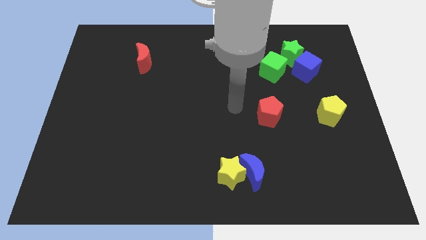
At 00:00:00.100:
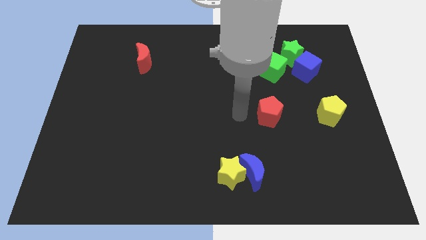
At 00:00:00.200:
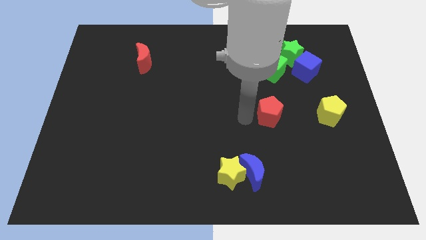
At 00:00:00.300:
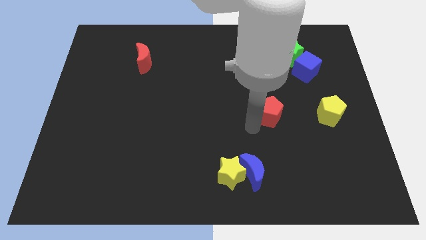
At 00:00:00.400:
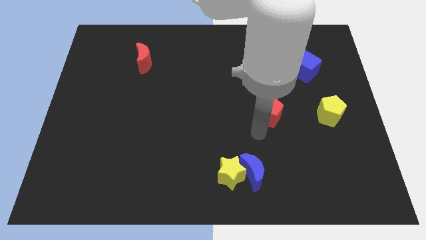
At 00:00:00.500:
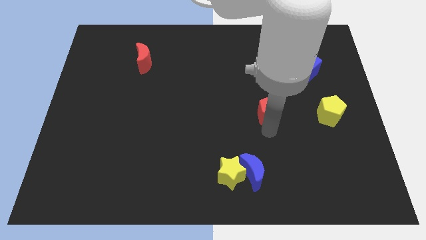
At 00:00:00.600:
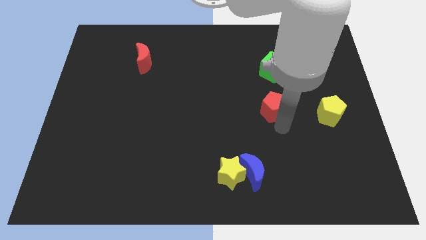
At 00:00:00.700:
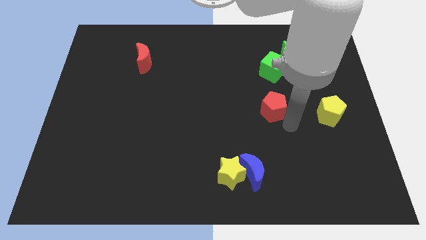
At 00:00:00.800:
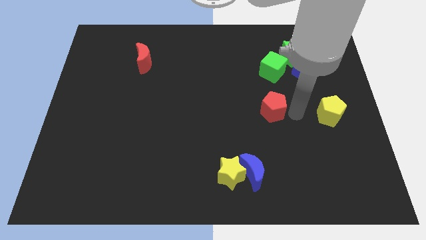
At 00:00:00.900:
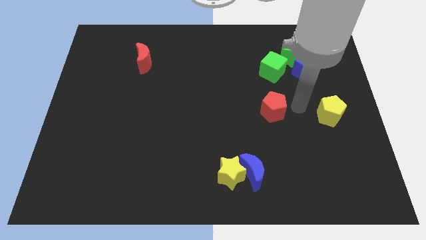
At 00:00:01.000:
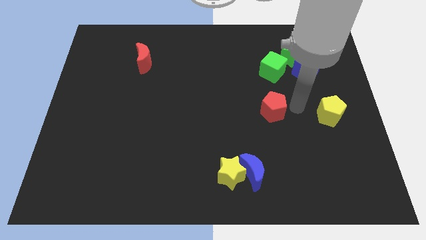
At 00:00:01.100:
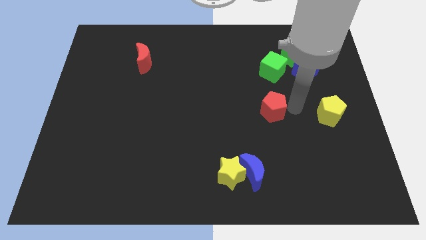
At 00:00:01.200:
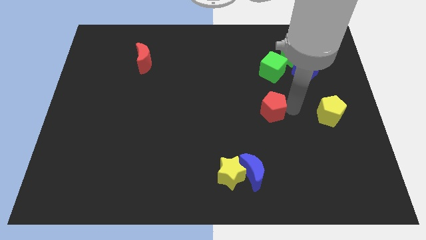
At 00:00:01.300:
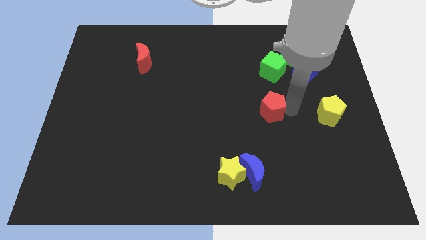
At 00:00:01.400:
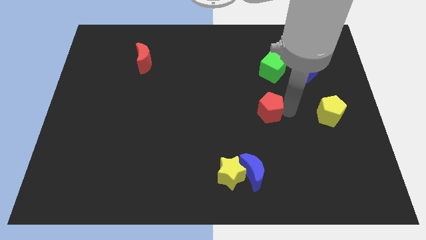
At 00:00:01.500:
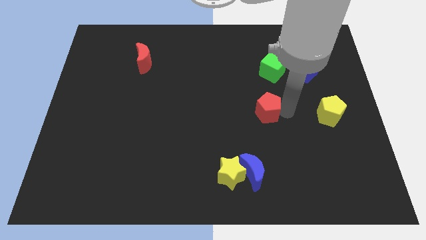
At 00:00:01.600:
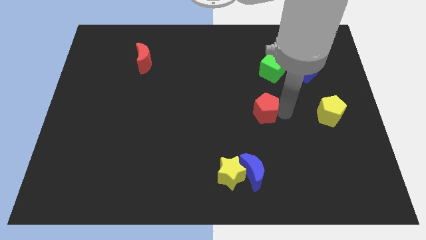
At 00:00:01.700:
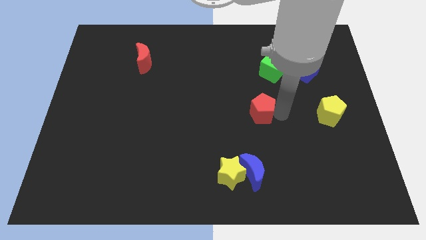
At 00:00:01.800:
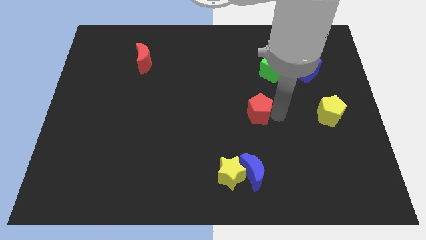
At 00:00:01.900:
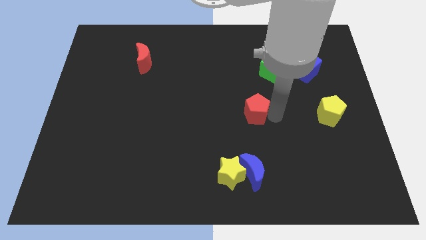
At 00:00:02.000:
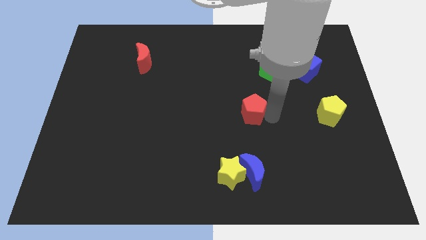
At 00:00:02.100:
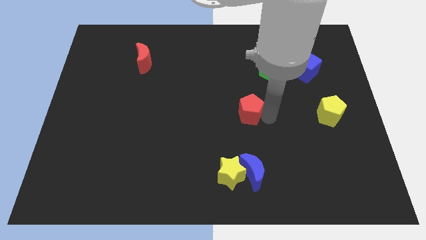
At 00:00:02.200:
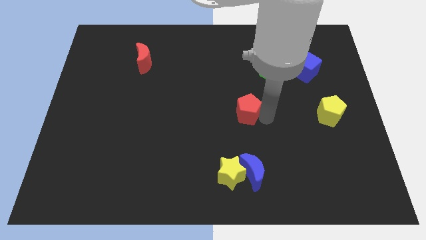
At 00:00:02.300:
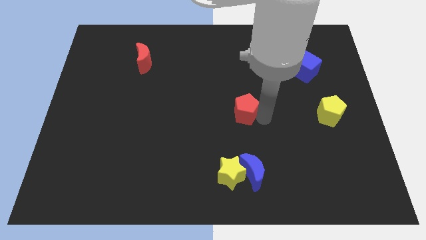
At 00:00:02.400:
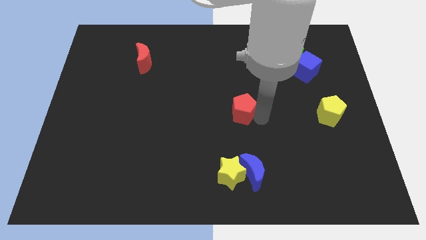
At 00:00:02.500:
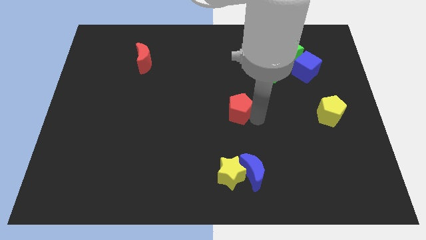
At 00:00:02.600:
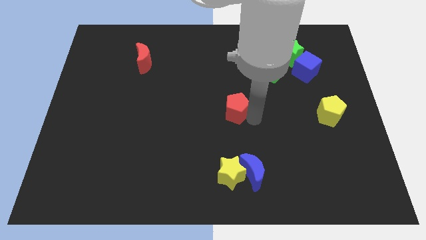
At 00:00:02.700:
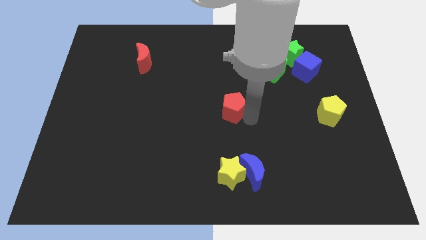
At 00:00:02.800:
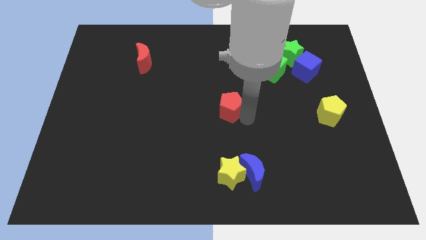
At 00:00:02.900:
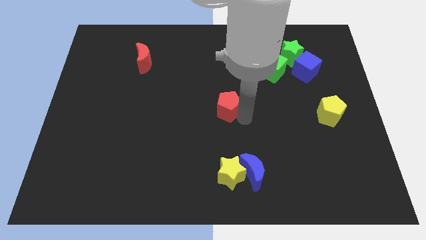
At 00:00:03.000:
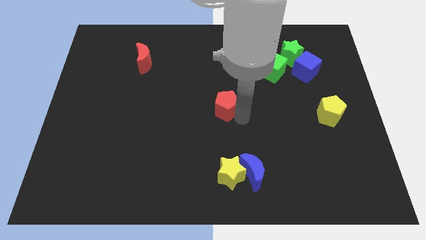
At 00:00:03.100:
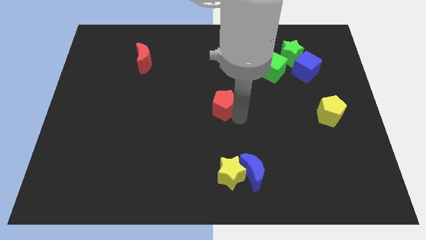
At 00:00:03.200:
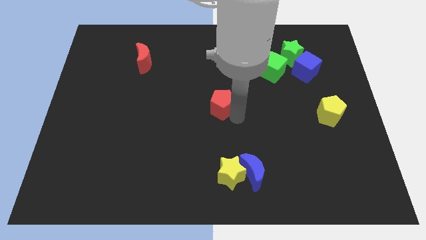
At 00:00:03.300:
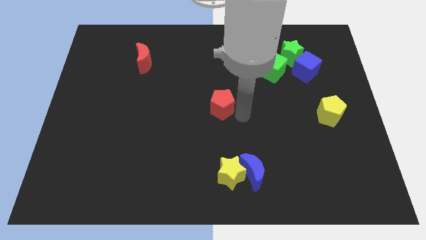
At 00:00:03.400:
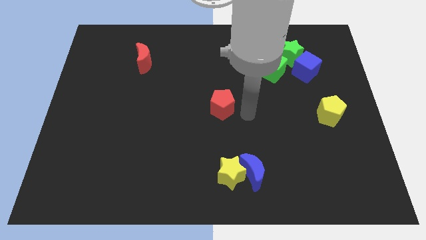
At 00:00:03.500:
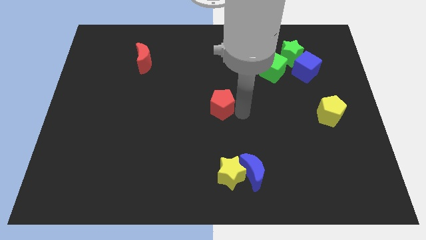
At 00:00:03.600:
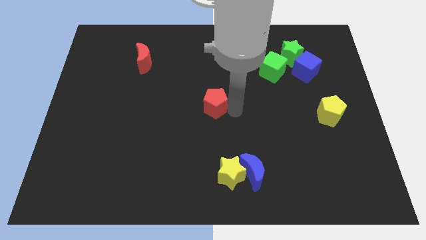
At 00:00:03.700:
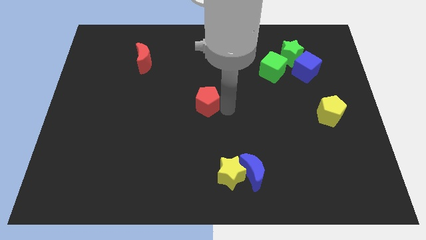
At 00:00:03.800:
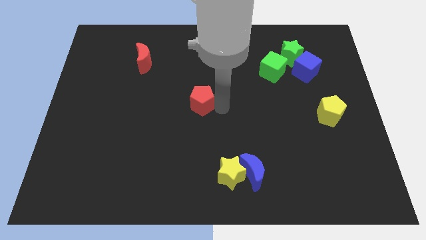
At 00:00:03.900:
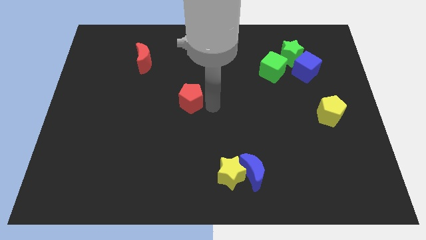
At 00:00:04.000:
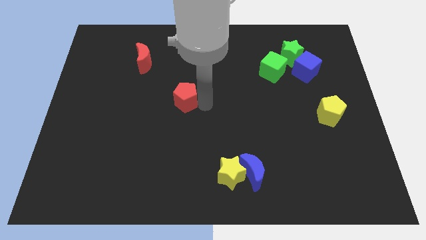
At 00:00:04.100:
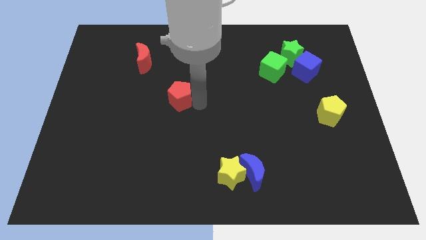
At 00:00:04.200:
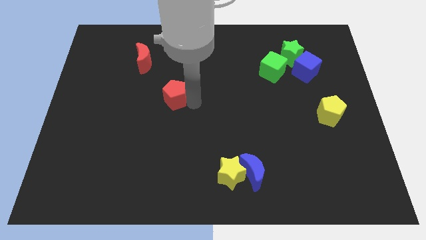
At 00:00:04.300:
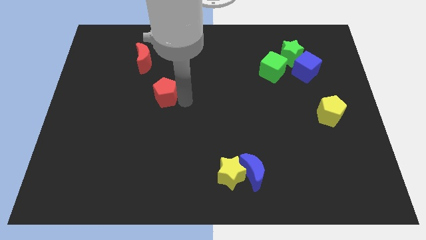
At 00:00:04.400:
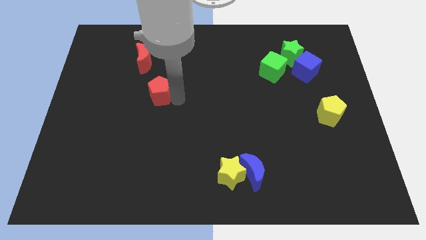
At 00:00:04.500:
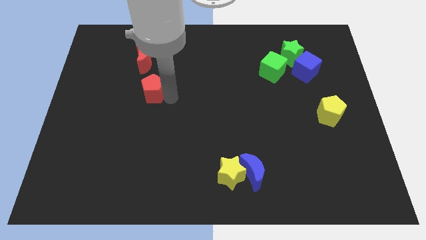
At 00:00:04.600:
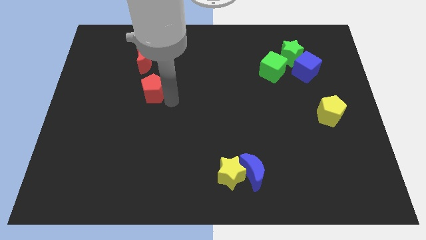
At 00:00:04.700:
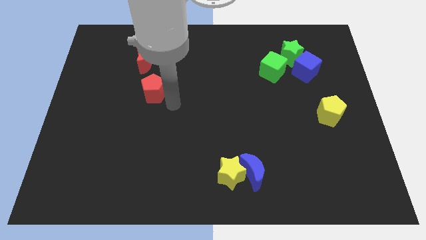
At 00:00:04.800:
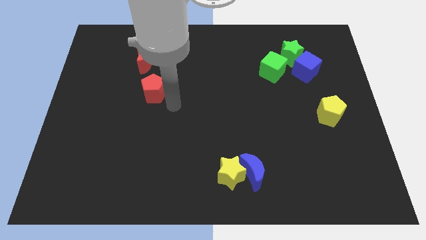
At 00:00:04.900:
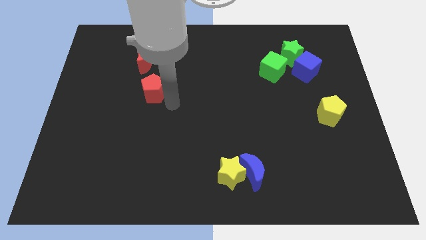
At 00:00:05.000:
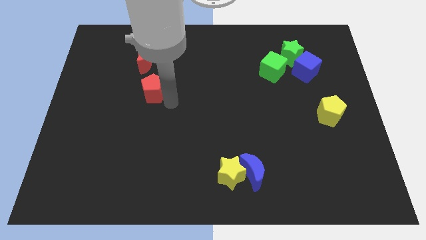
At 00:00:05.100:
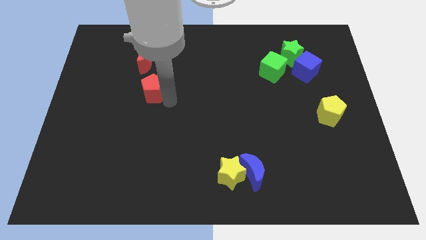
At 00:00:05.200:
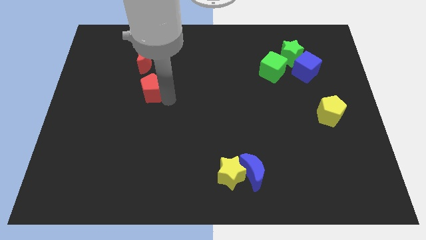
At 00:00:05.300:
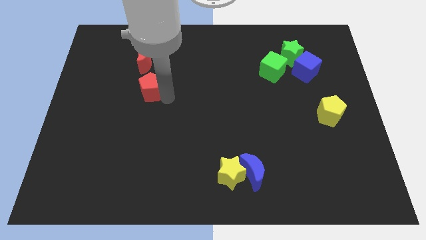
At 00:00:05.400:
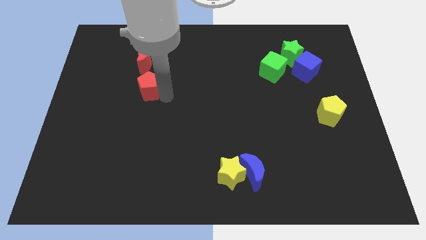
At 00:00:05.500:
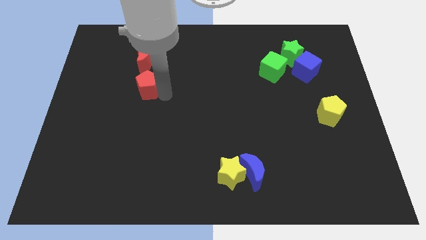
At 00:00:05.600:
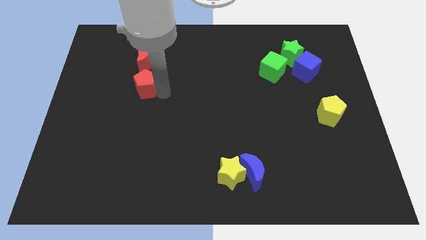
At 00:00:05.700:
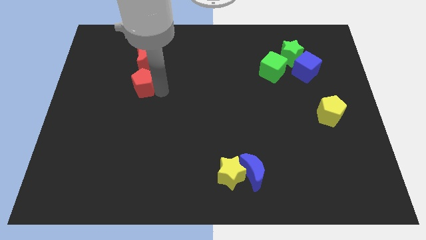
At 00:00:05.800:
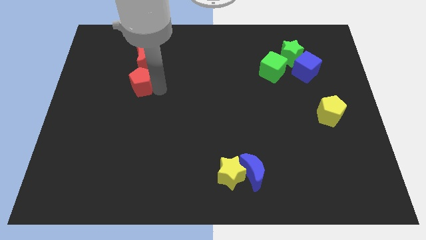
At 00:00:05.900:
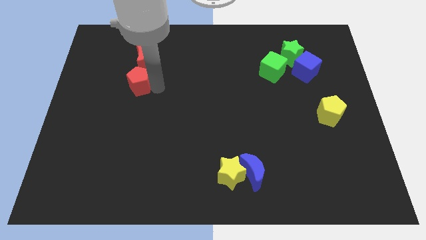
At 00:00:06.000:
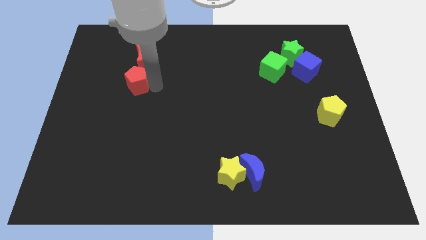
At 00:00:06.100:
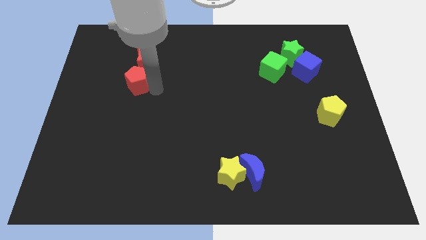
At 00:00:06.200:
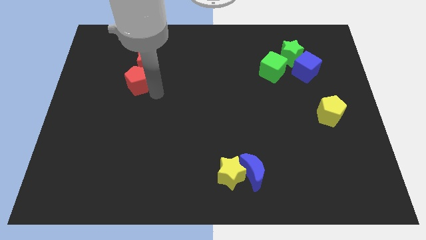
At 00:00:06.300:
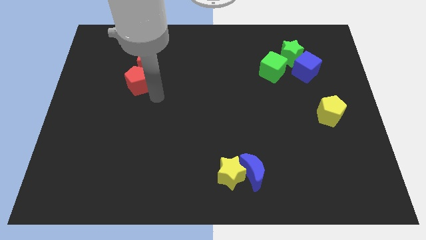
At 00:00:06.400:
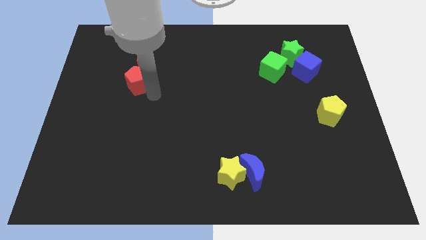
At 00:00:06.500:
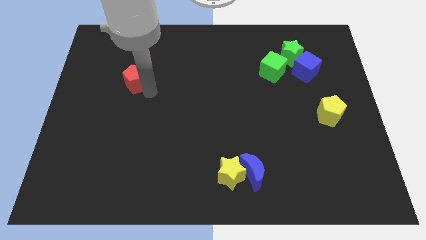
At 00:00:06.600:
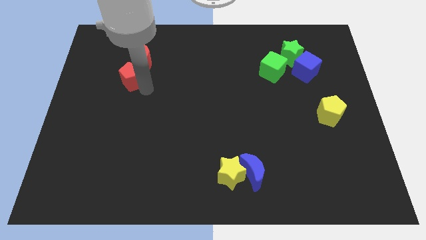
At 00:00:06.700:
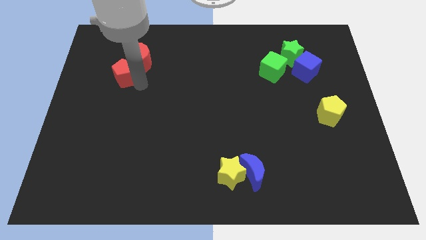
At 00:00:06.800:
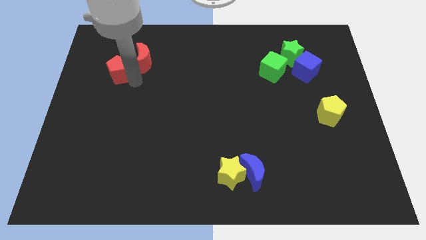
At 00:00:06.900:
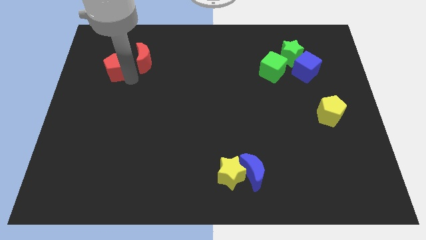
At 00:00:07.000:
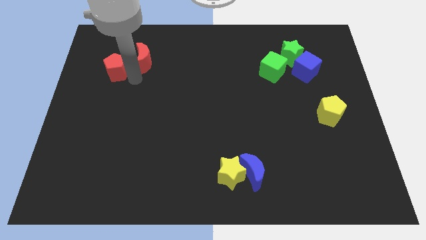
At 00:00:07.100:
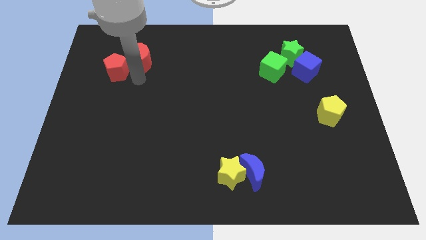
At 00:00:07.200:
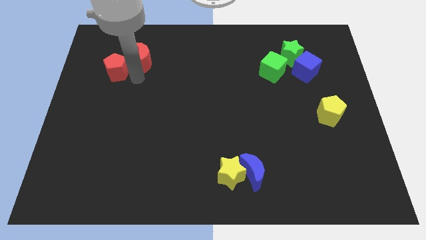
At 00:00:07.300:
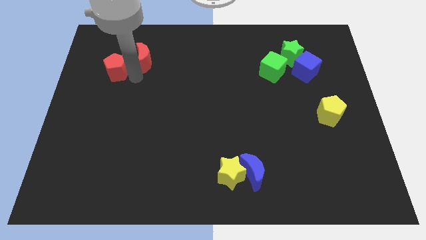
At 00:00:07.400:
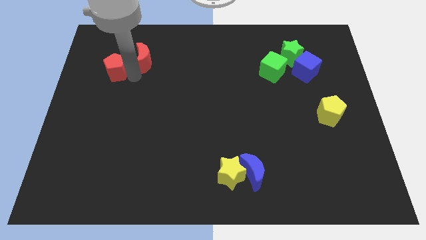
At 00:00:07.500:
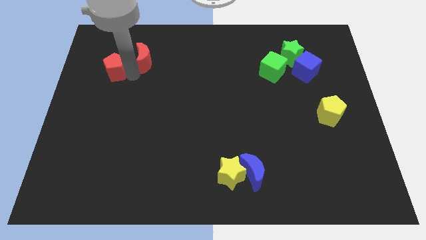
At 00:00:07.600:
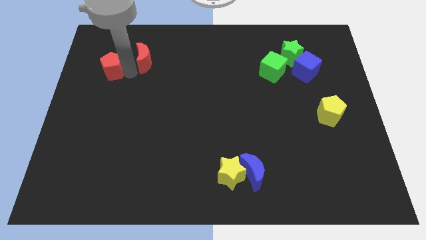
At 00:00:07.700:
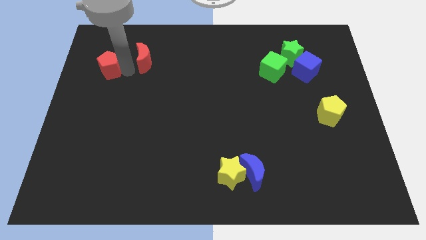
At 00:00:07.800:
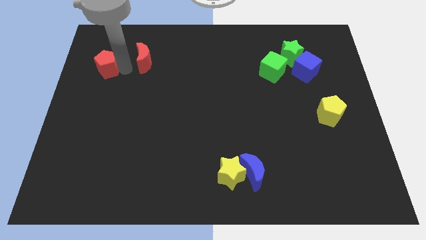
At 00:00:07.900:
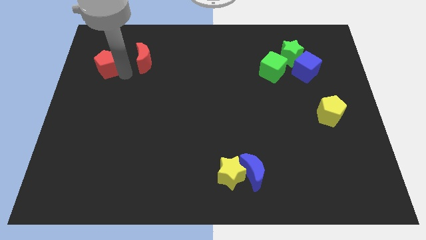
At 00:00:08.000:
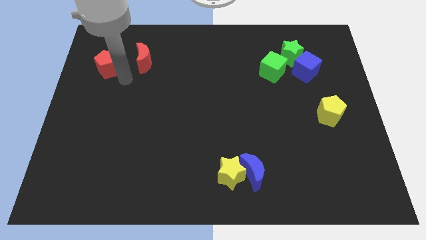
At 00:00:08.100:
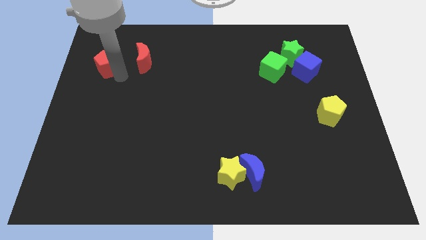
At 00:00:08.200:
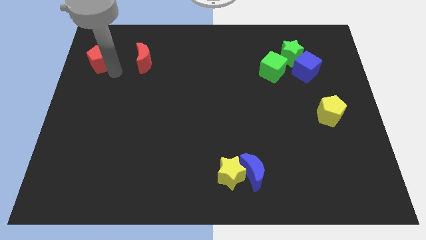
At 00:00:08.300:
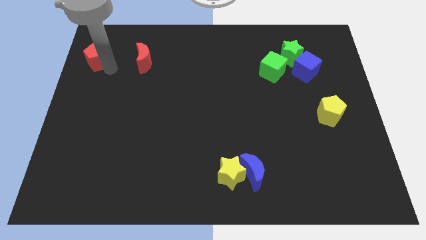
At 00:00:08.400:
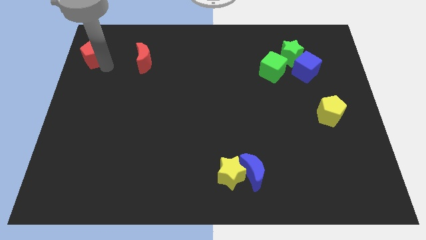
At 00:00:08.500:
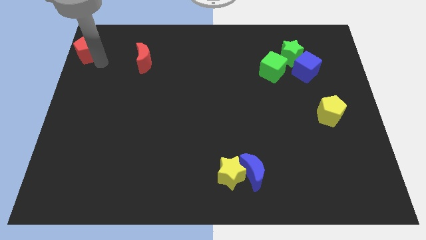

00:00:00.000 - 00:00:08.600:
push the red pentagon to the top left
